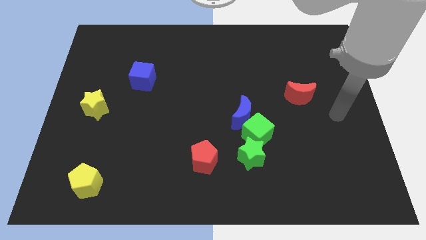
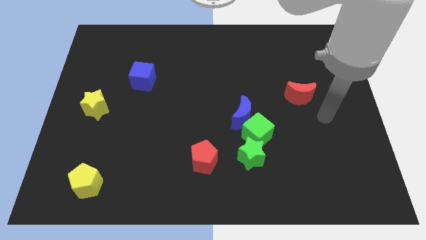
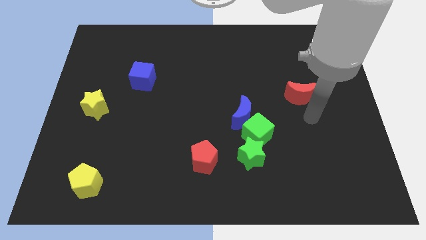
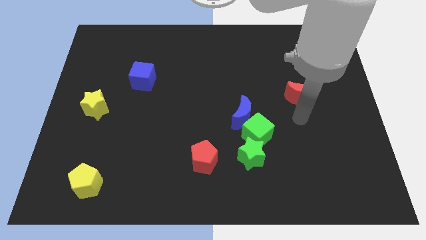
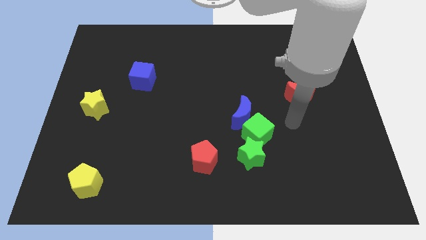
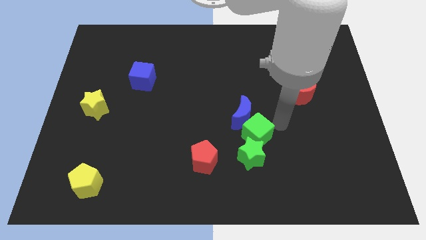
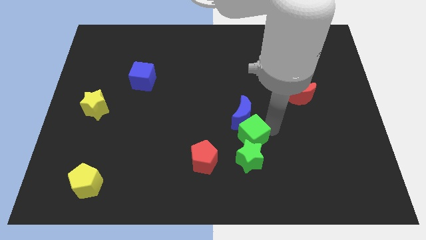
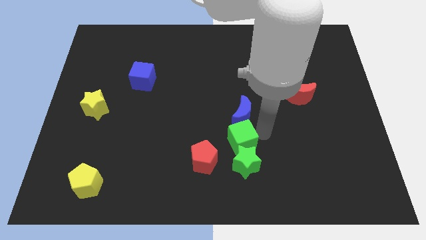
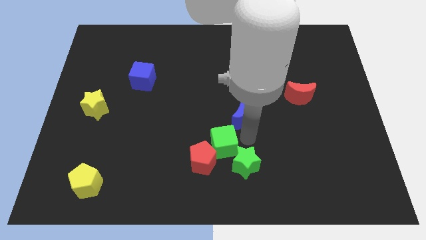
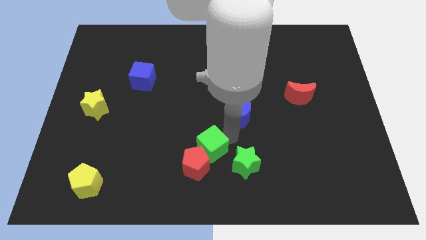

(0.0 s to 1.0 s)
separate the blue moon from the green cube

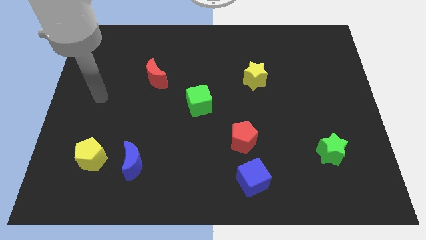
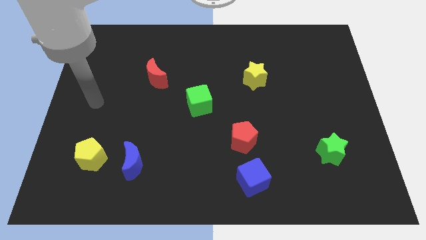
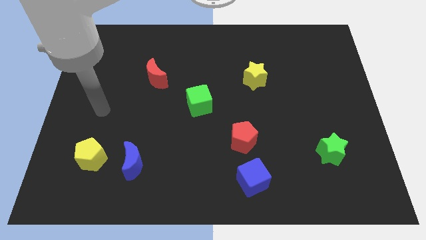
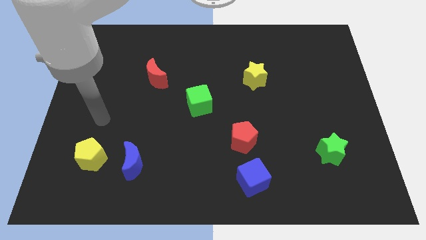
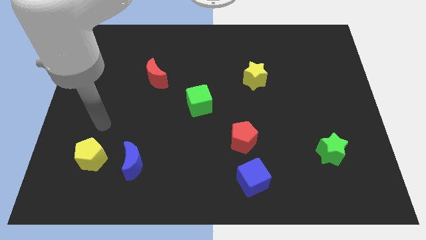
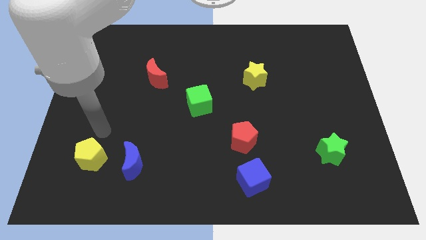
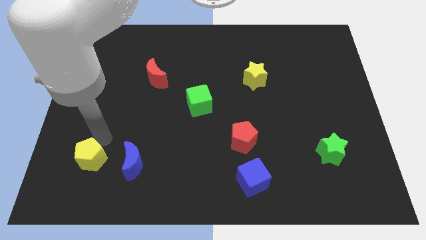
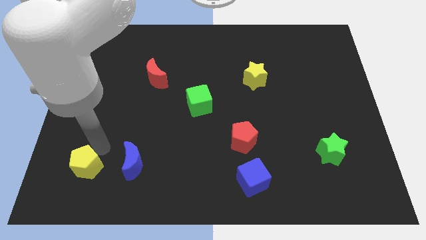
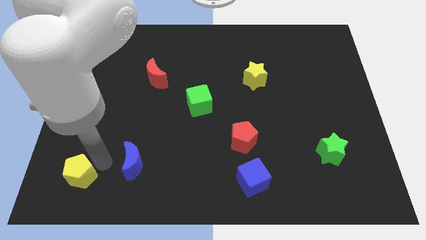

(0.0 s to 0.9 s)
pull the blue moon apart from the yellow pentagon

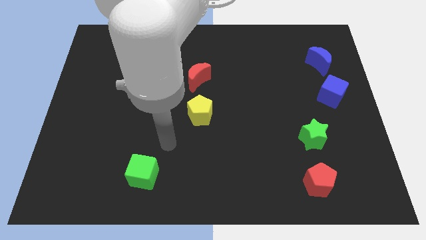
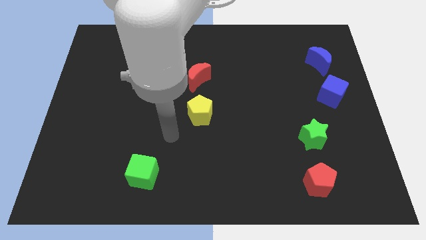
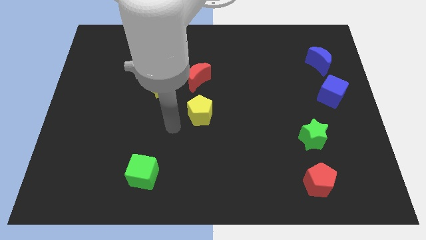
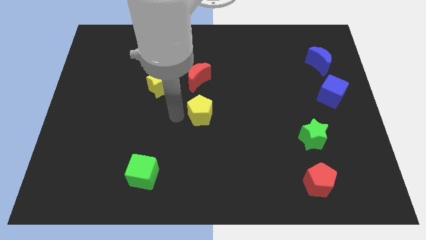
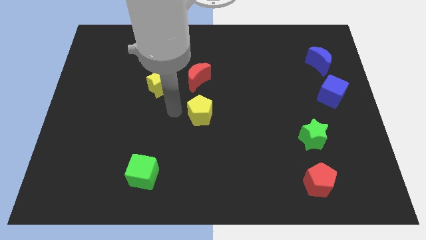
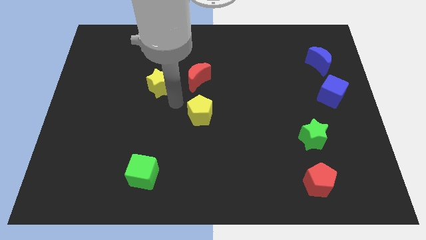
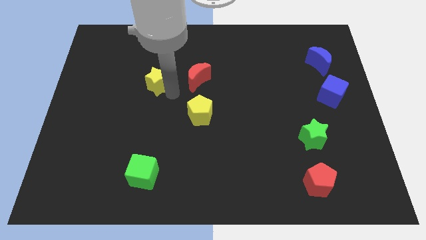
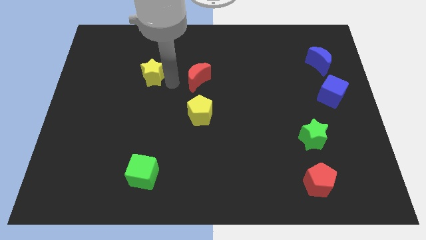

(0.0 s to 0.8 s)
separate the red moon from the yellow star

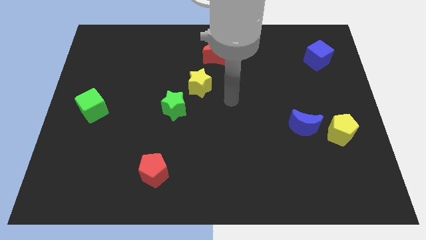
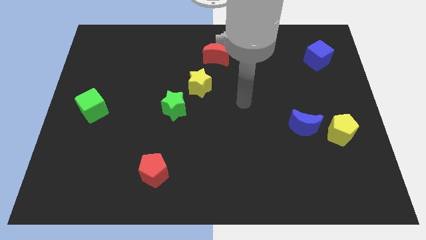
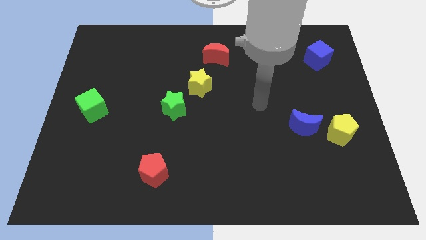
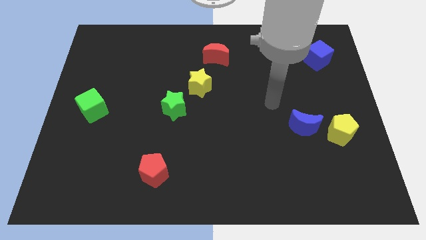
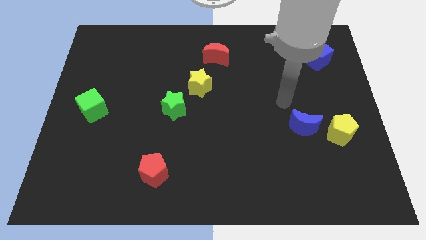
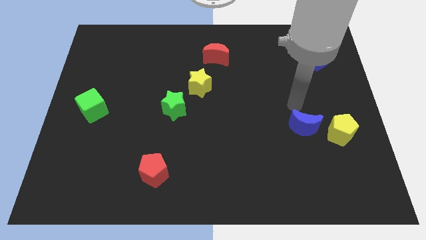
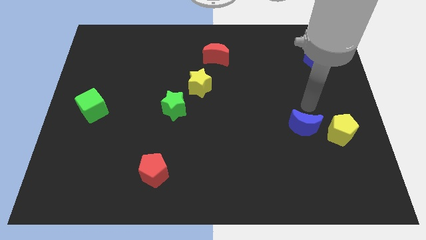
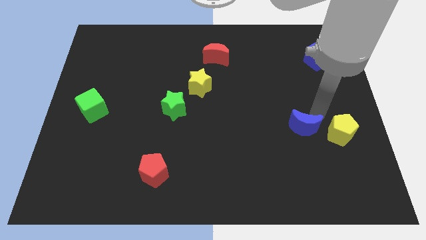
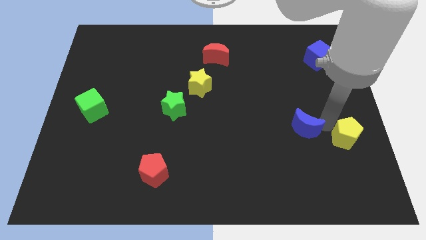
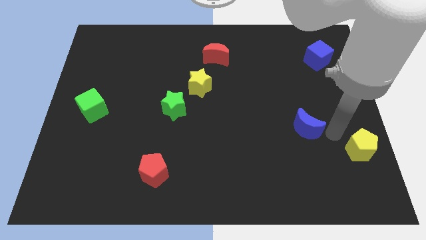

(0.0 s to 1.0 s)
separate the blue moon from the yellow pentagon

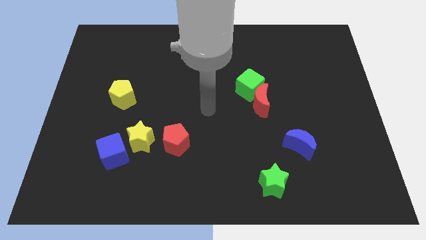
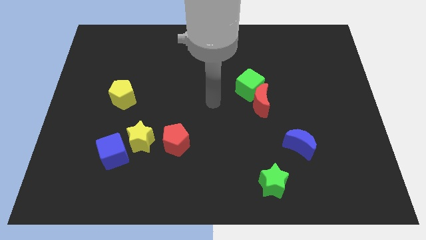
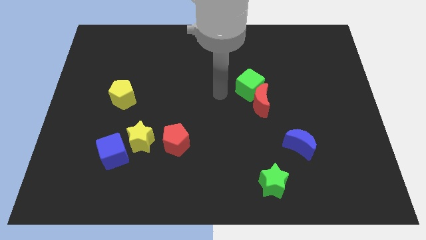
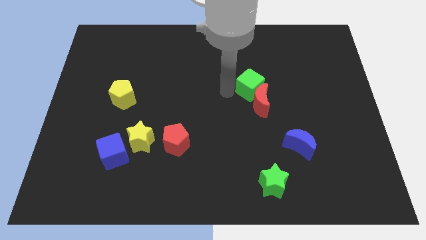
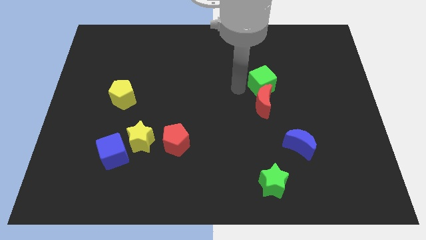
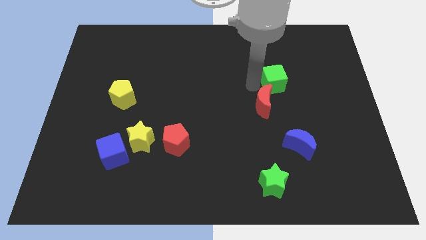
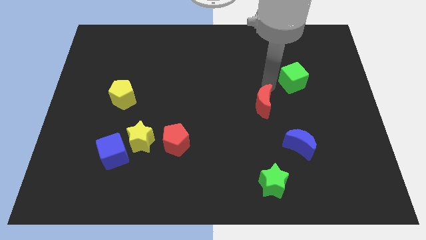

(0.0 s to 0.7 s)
pull the red moon apart from the green cube

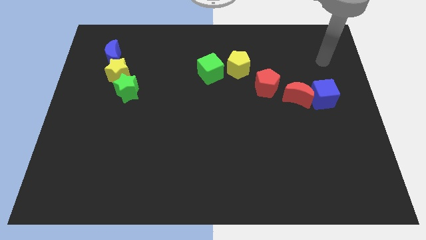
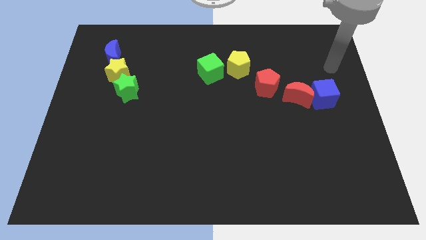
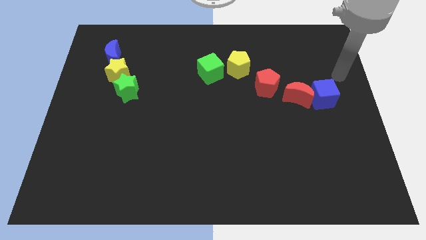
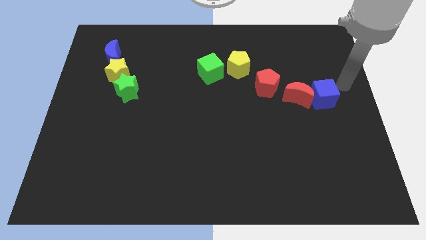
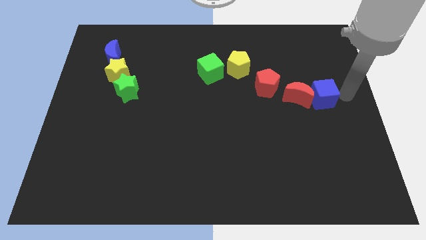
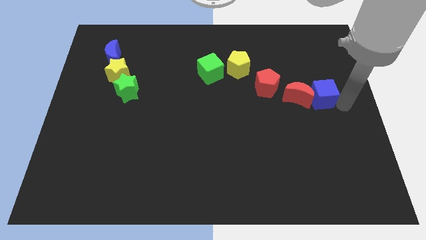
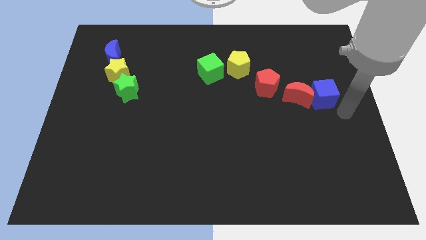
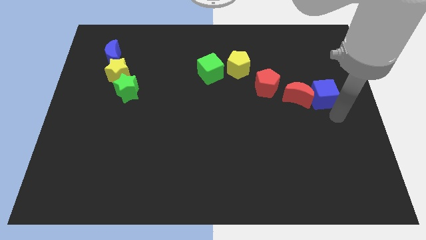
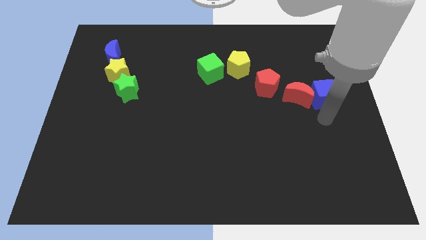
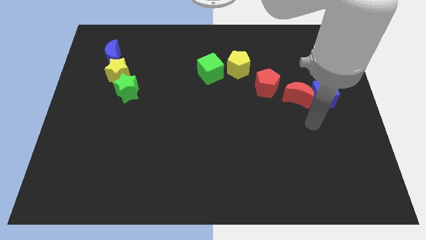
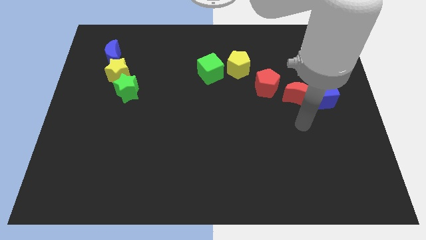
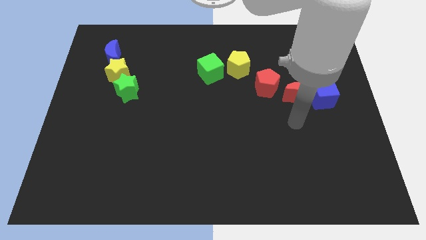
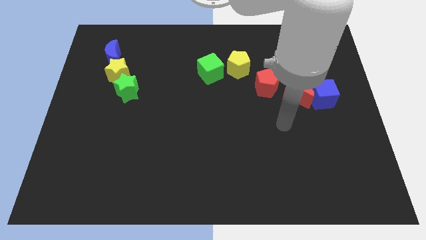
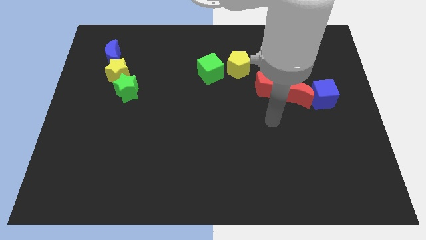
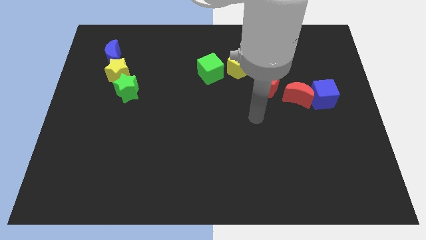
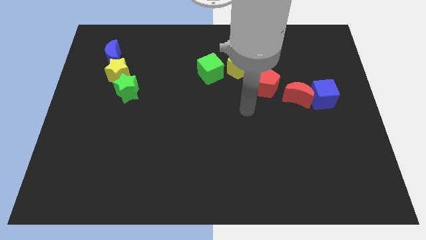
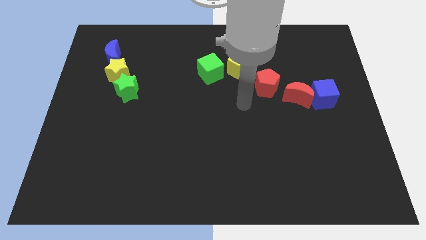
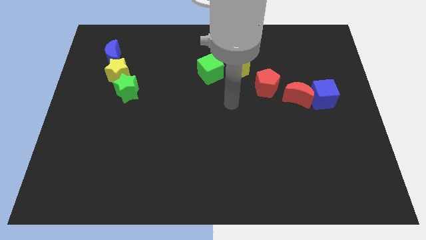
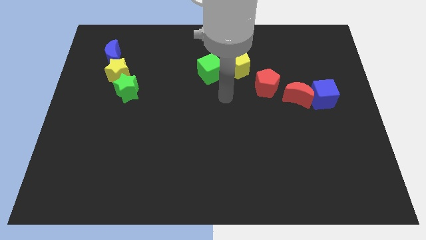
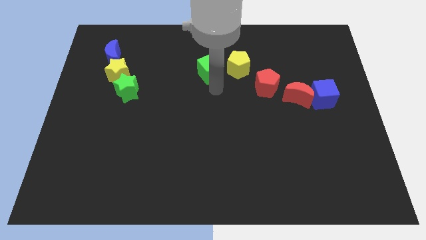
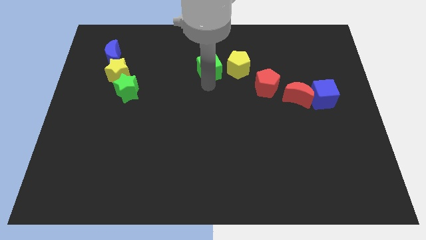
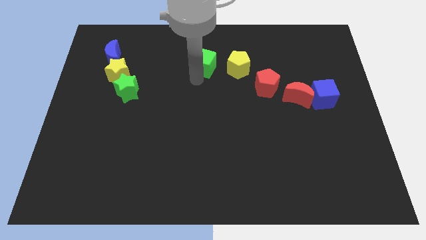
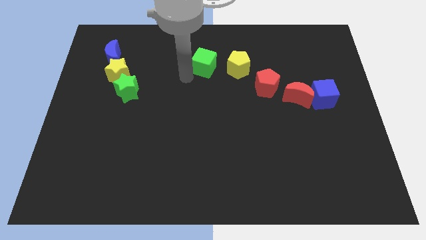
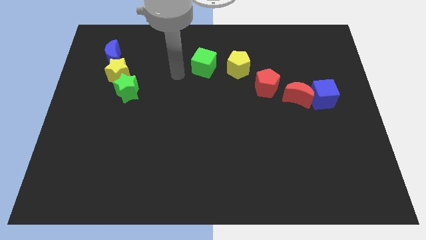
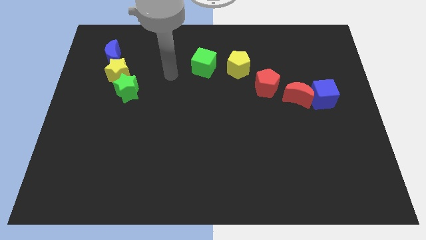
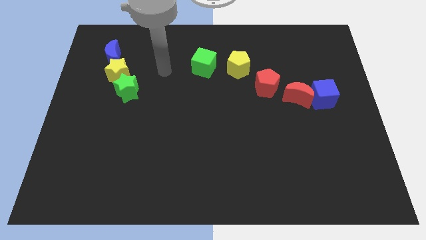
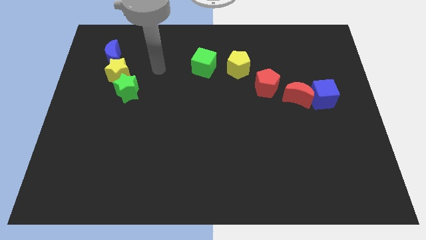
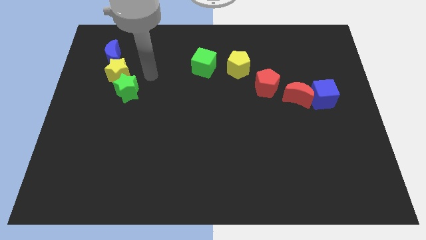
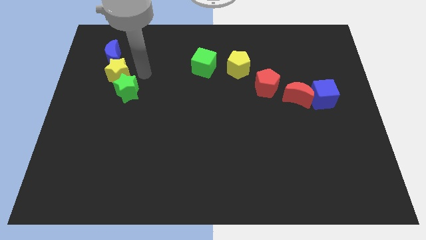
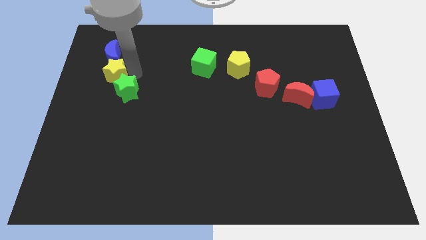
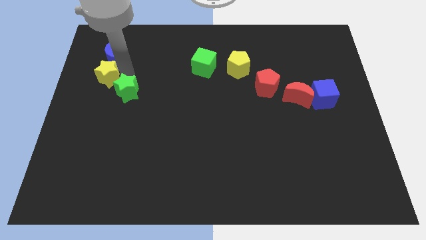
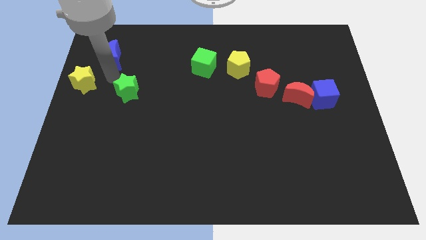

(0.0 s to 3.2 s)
move the green star away from the yellow star

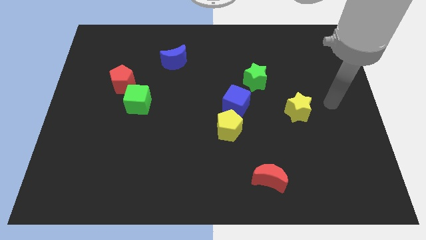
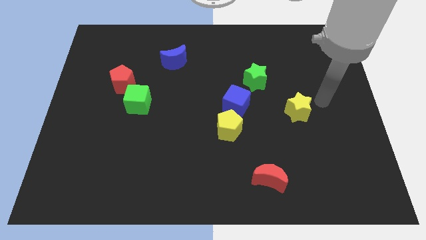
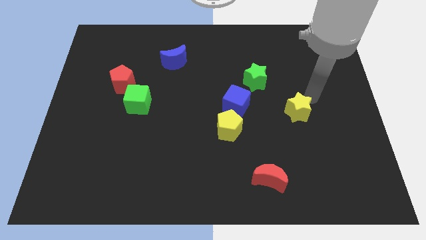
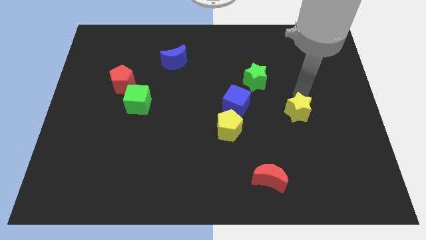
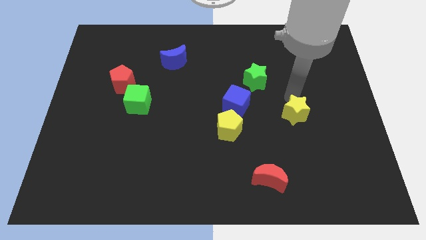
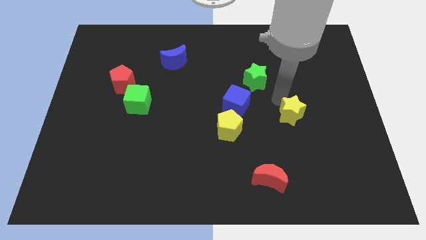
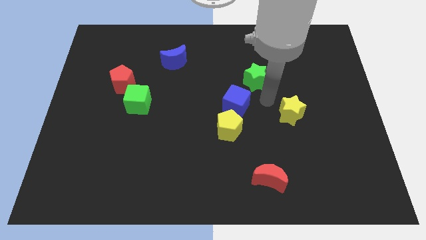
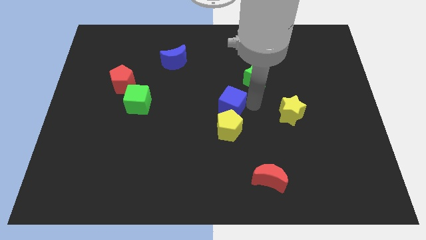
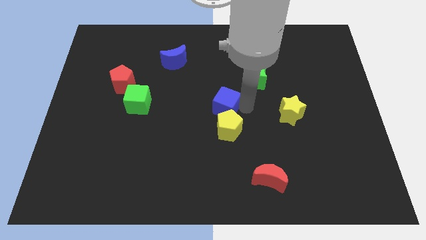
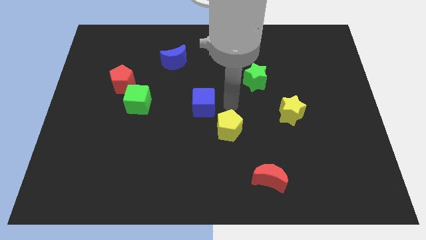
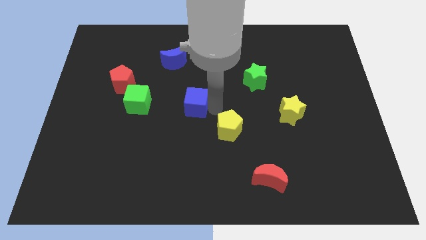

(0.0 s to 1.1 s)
move the yellow pentagon away from the blue cube

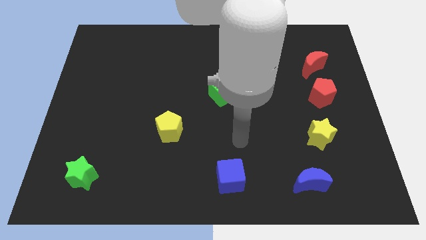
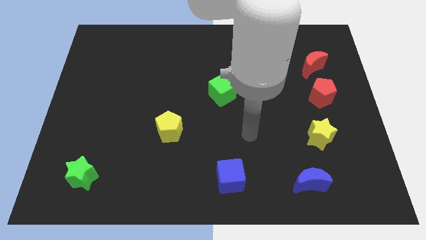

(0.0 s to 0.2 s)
separate the red moon from the red pentagon

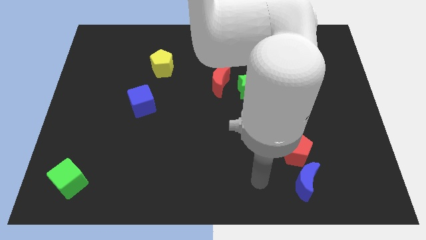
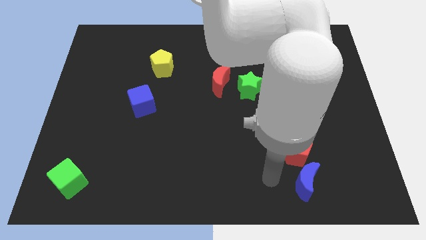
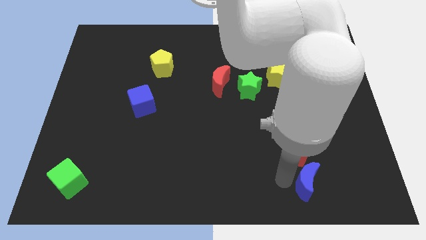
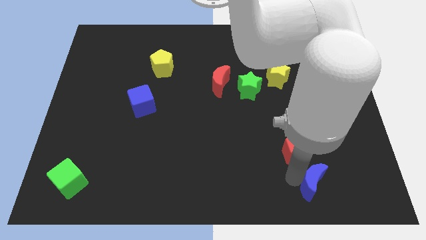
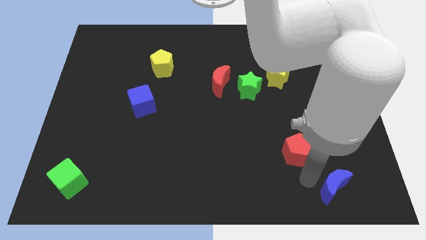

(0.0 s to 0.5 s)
separate the red pentagon from the blue moon
